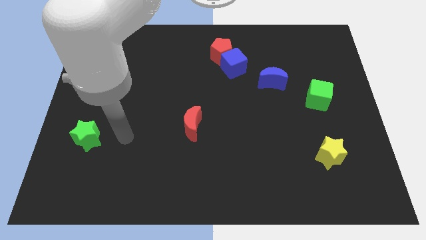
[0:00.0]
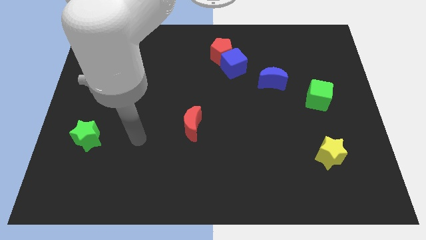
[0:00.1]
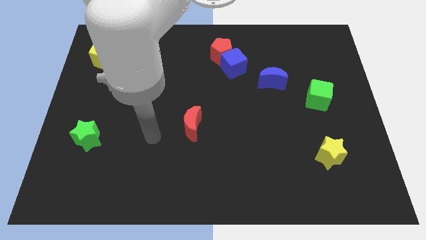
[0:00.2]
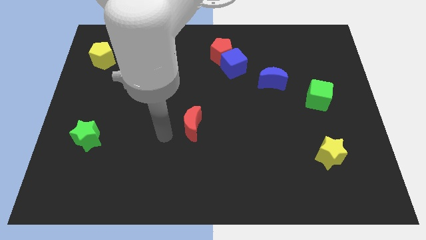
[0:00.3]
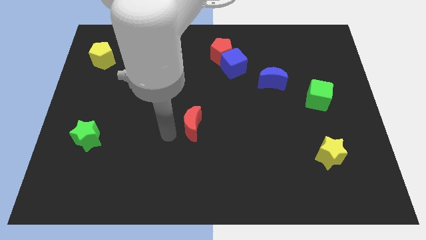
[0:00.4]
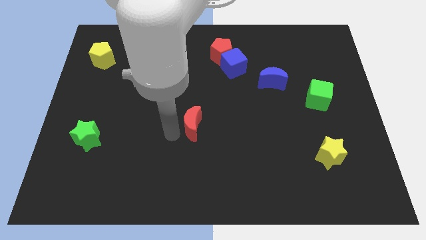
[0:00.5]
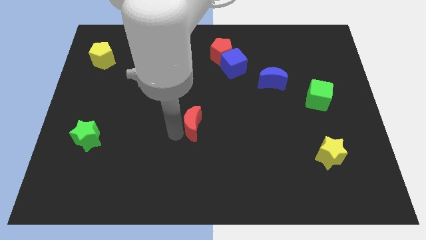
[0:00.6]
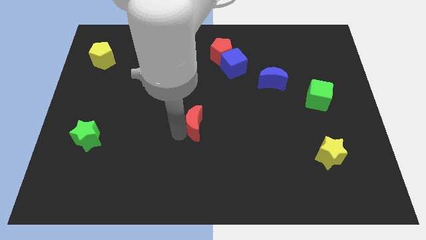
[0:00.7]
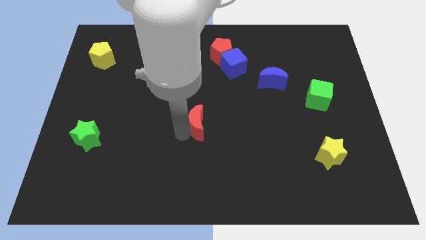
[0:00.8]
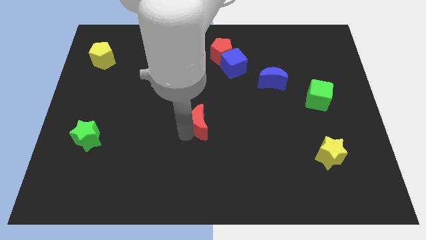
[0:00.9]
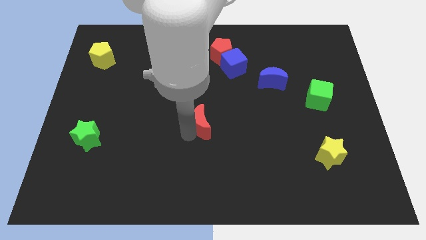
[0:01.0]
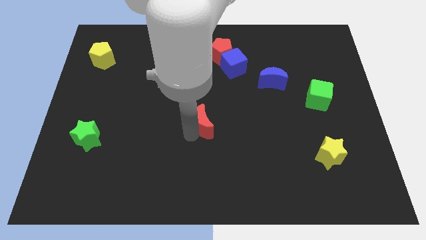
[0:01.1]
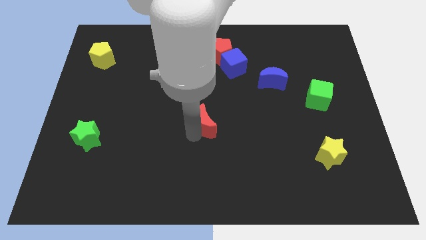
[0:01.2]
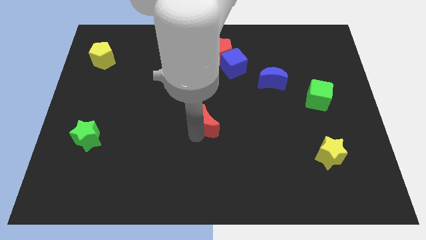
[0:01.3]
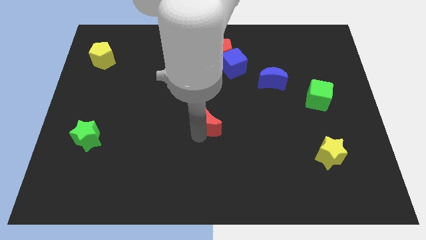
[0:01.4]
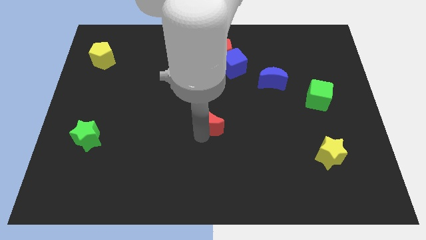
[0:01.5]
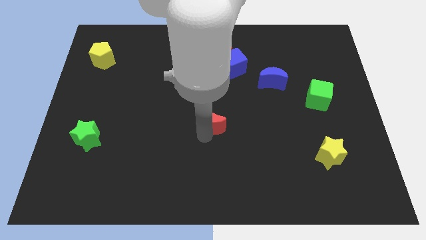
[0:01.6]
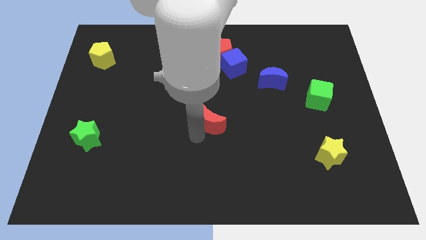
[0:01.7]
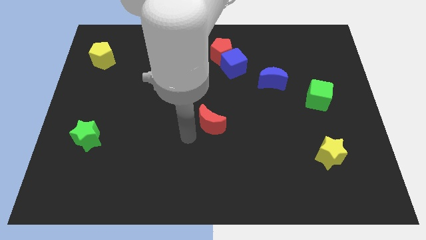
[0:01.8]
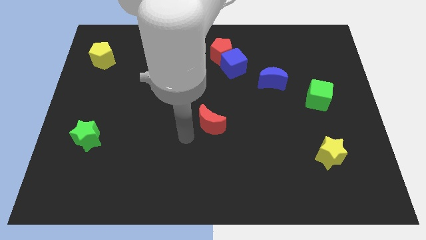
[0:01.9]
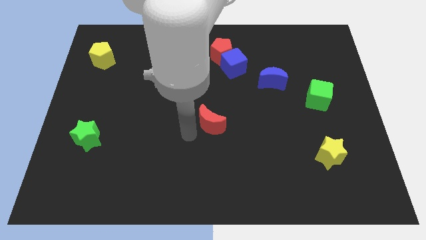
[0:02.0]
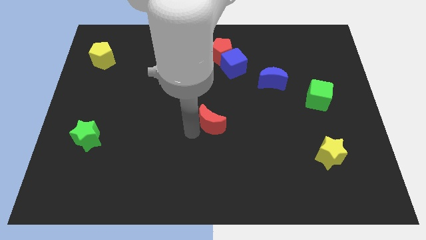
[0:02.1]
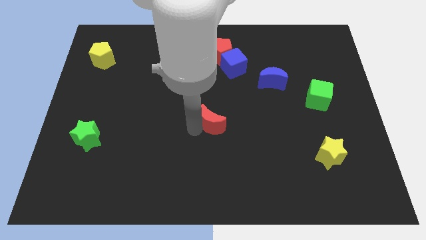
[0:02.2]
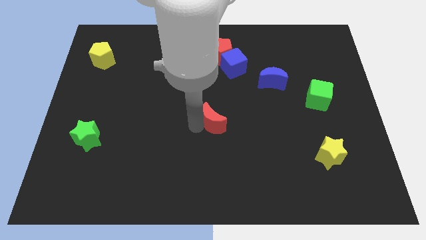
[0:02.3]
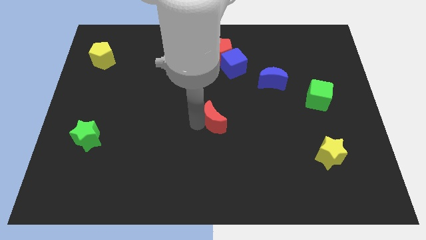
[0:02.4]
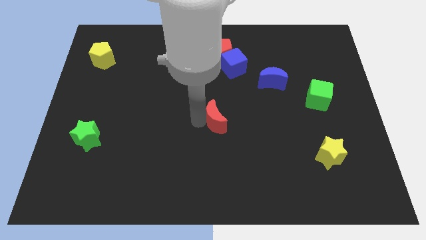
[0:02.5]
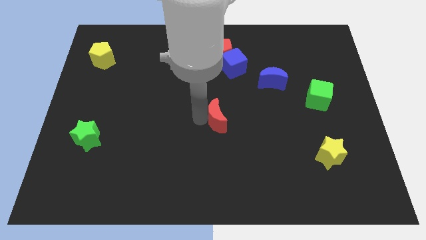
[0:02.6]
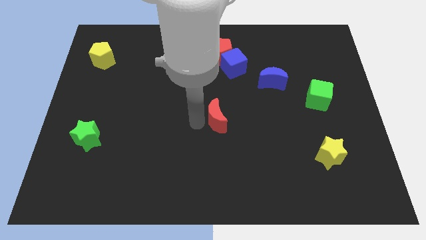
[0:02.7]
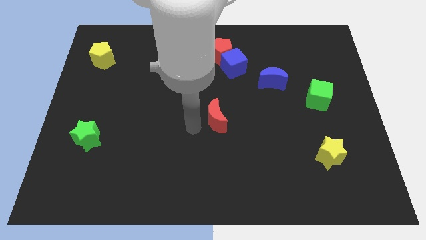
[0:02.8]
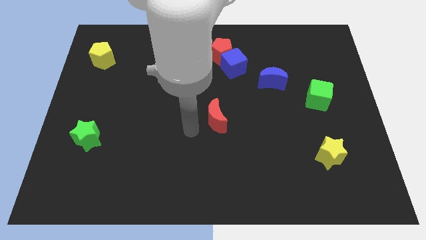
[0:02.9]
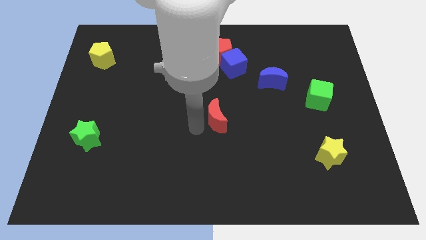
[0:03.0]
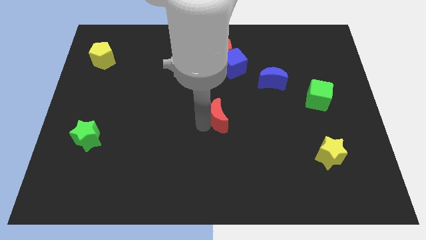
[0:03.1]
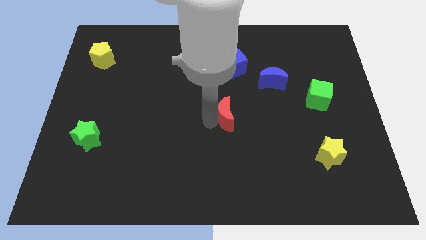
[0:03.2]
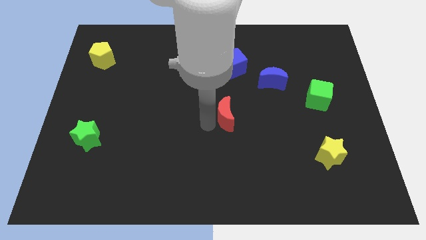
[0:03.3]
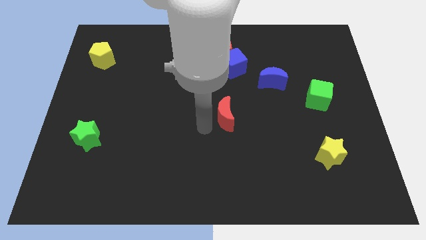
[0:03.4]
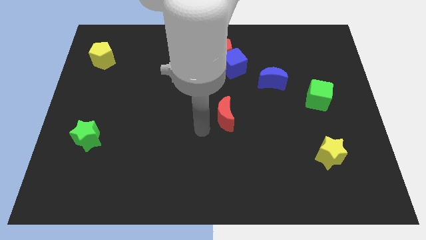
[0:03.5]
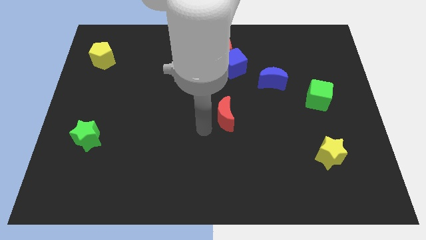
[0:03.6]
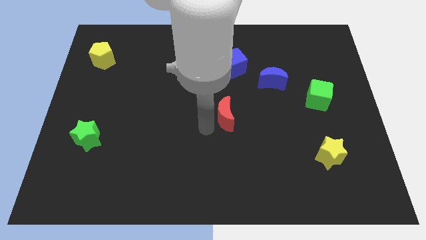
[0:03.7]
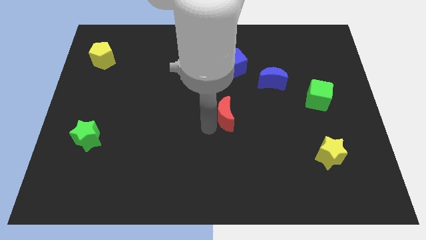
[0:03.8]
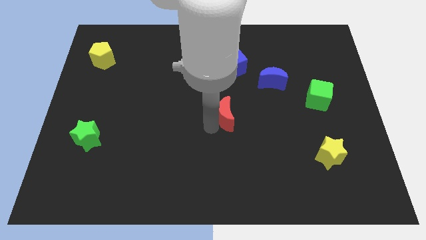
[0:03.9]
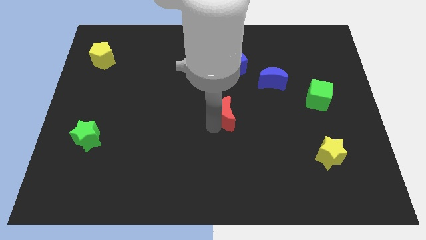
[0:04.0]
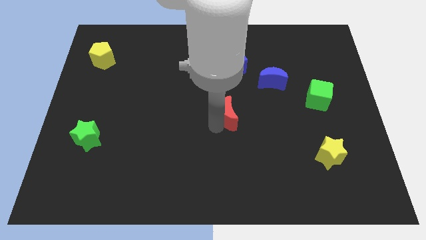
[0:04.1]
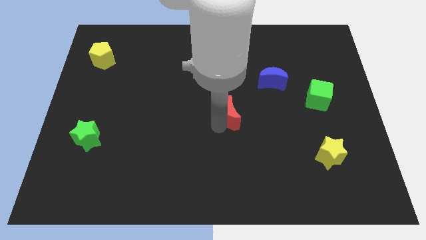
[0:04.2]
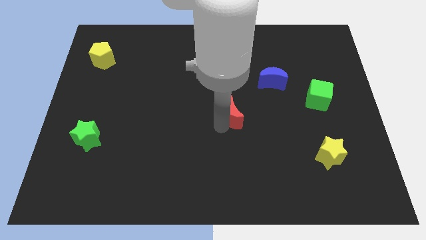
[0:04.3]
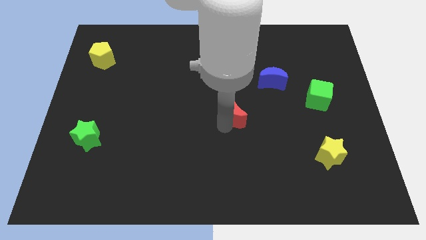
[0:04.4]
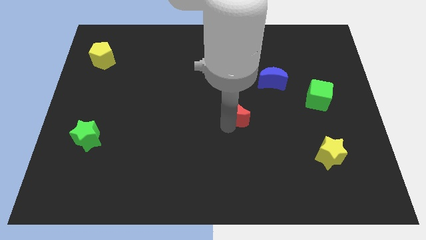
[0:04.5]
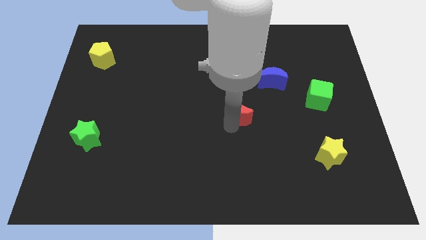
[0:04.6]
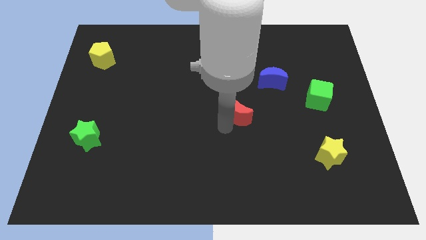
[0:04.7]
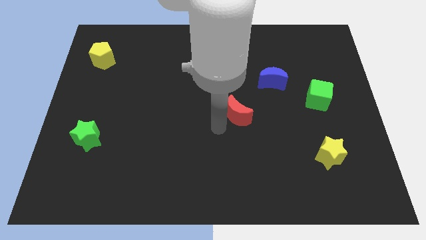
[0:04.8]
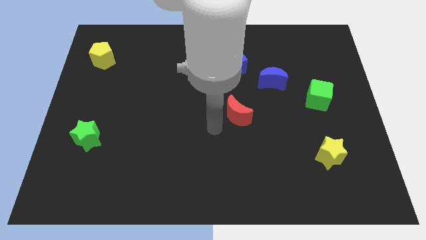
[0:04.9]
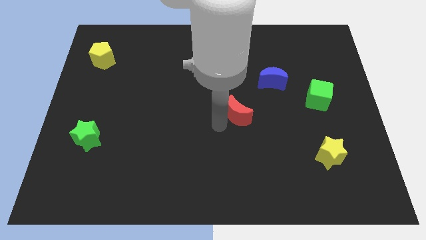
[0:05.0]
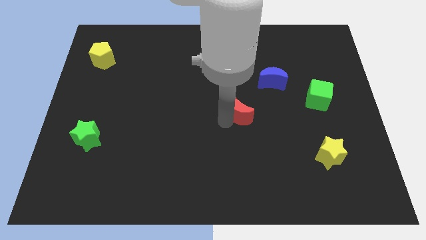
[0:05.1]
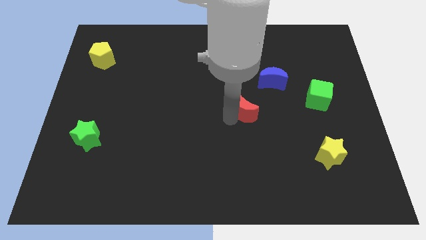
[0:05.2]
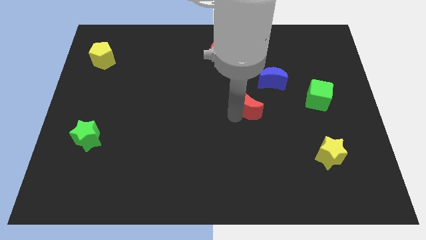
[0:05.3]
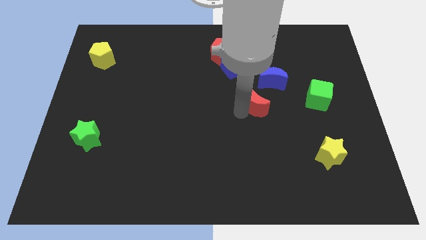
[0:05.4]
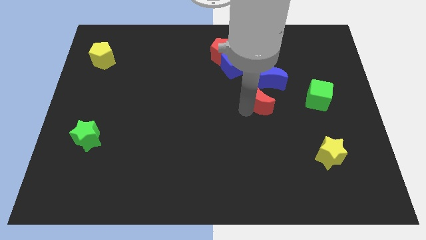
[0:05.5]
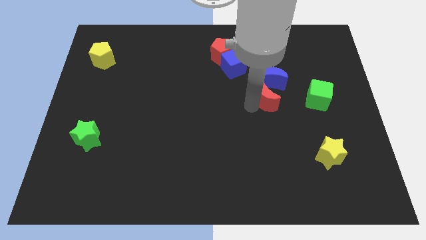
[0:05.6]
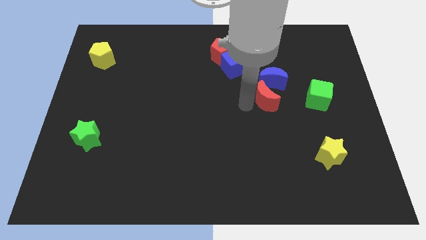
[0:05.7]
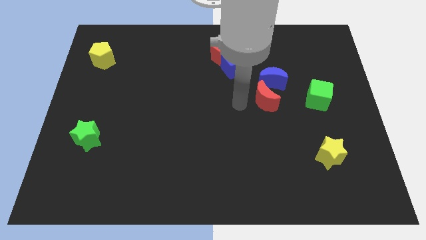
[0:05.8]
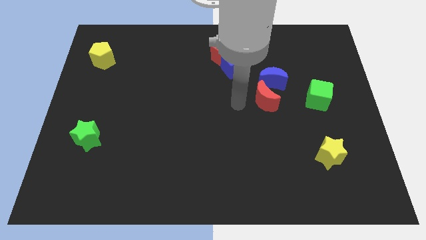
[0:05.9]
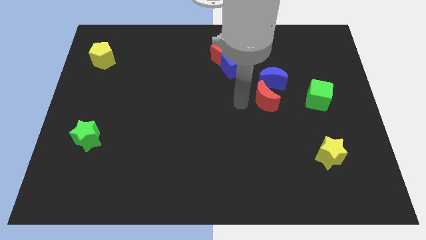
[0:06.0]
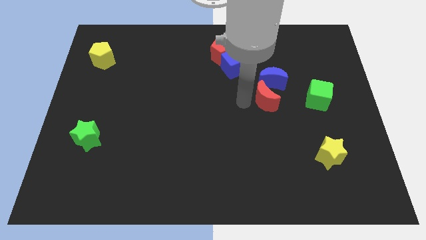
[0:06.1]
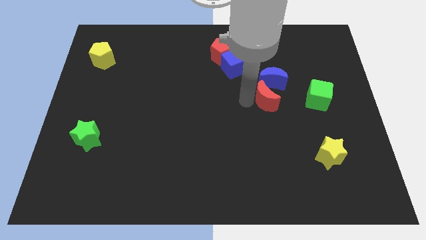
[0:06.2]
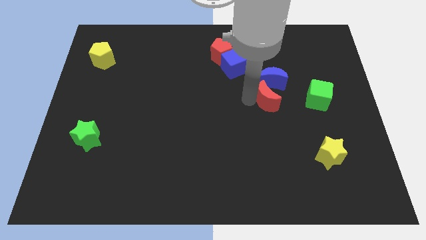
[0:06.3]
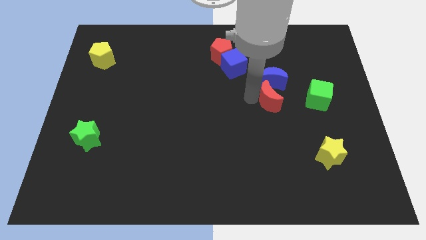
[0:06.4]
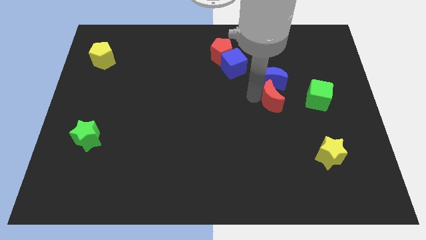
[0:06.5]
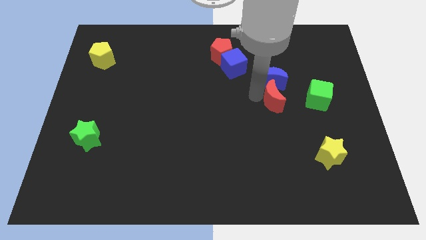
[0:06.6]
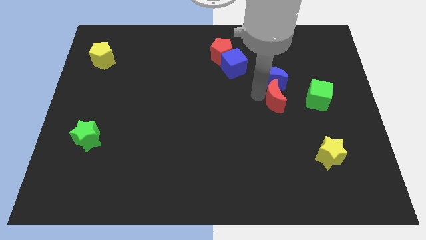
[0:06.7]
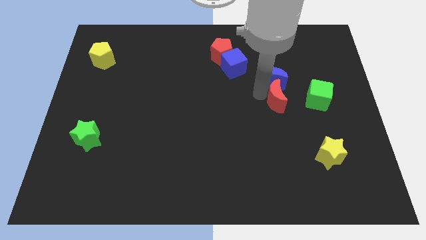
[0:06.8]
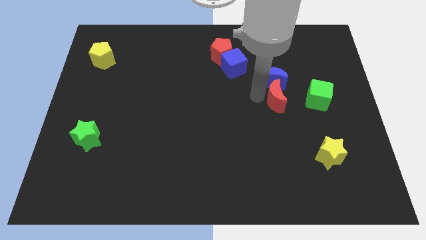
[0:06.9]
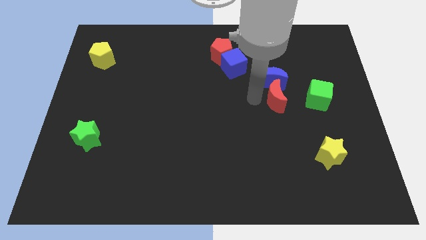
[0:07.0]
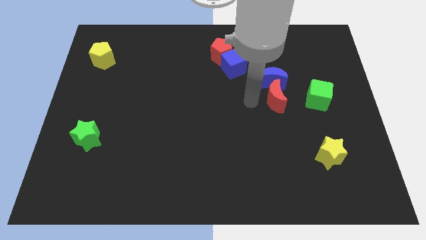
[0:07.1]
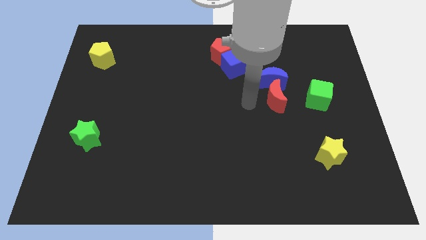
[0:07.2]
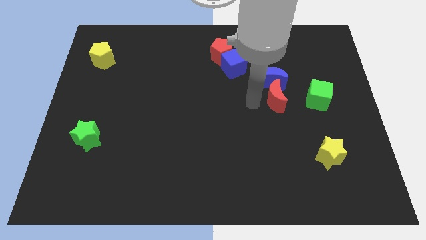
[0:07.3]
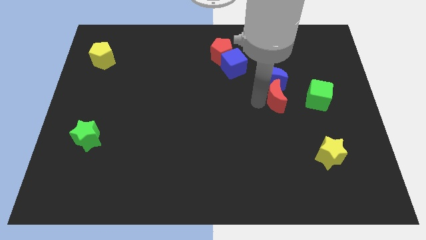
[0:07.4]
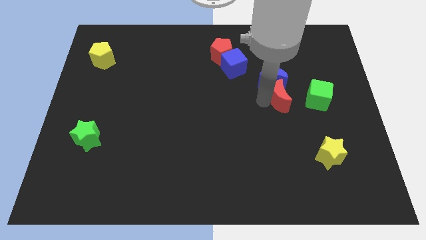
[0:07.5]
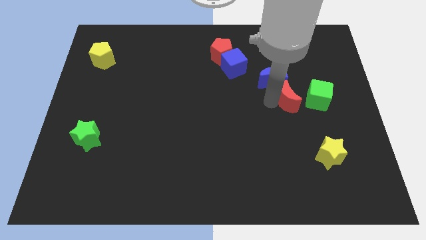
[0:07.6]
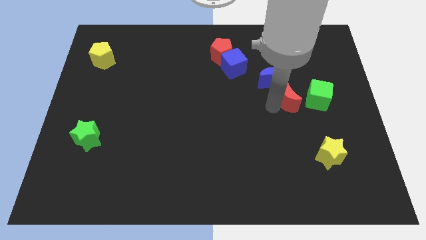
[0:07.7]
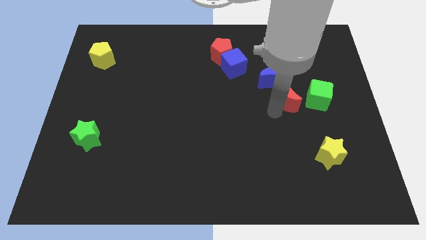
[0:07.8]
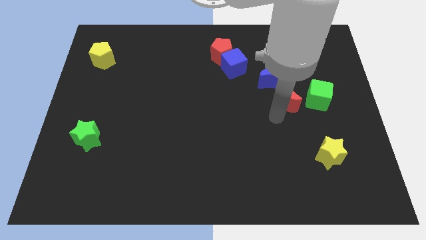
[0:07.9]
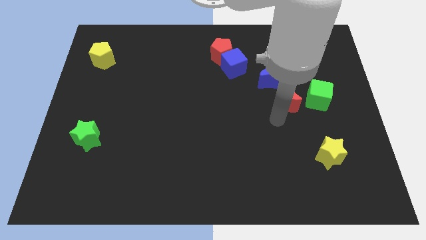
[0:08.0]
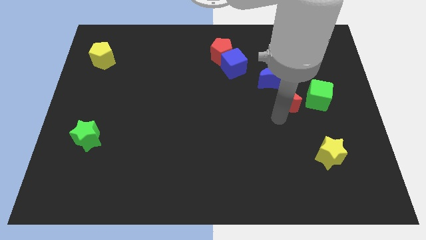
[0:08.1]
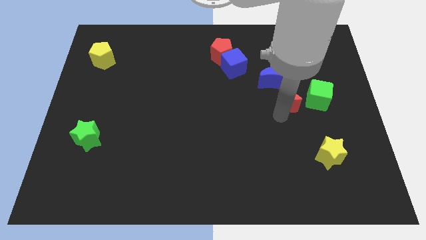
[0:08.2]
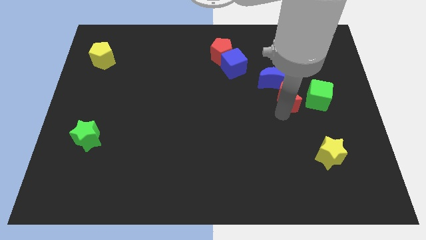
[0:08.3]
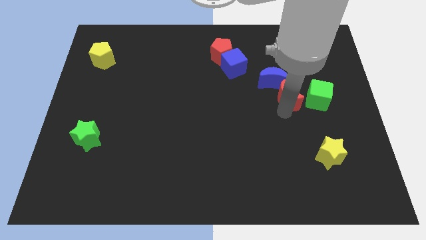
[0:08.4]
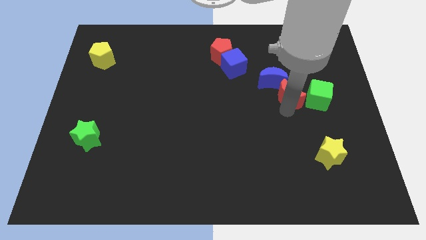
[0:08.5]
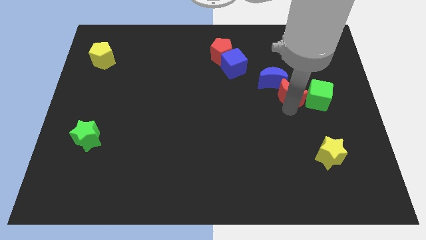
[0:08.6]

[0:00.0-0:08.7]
move the red moon to the top left side of the green cube
